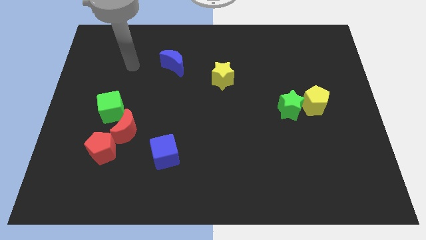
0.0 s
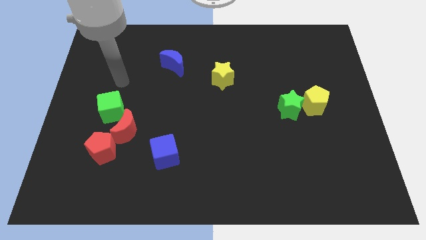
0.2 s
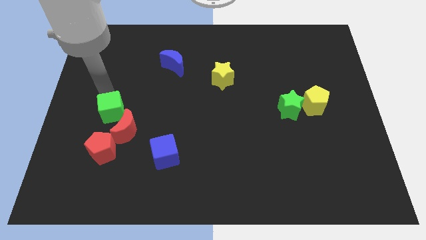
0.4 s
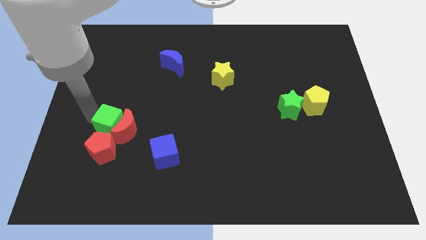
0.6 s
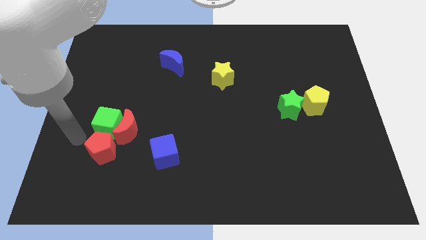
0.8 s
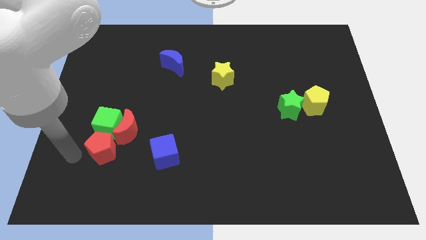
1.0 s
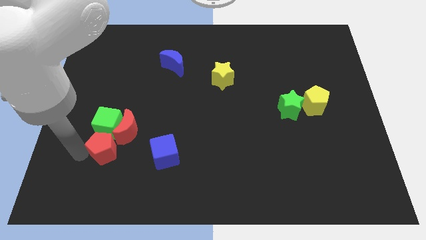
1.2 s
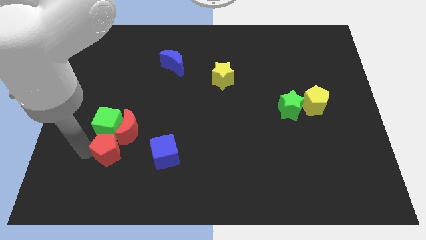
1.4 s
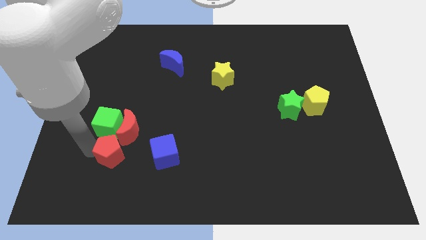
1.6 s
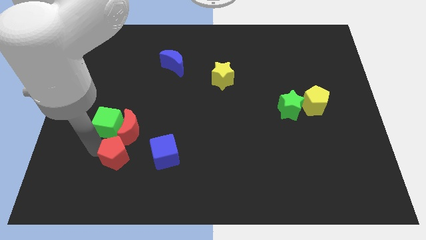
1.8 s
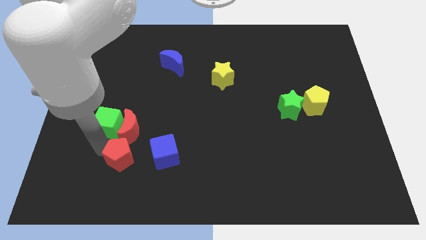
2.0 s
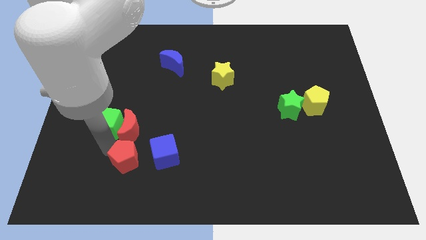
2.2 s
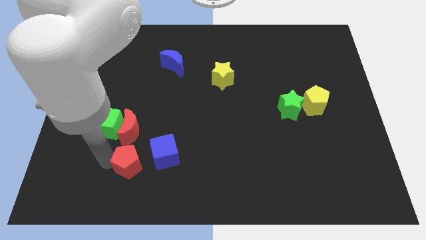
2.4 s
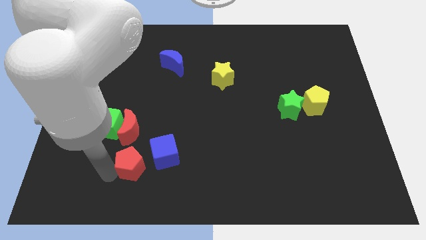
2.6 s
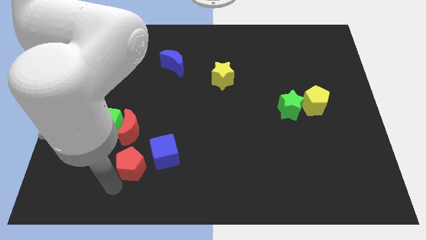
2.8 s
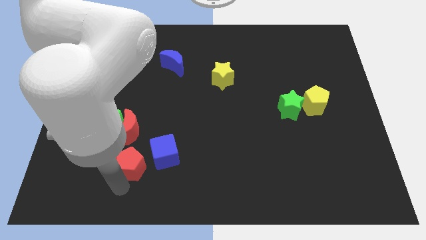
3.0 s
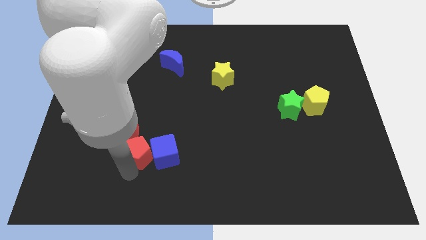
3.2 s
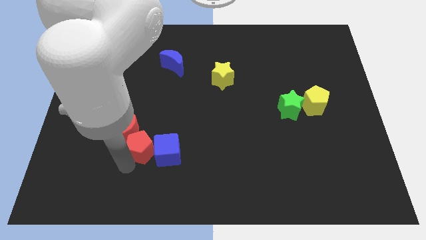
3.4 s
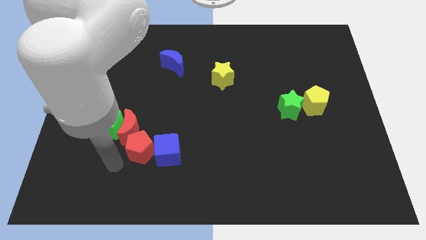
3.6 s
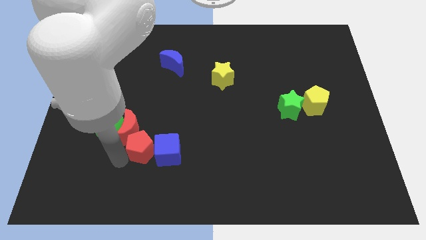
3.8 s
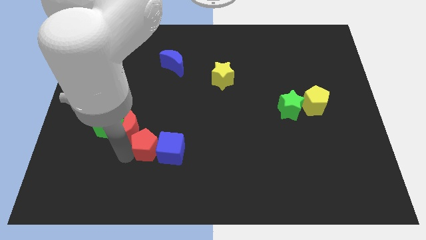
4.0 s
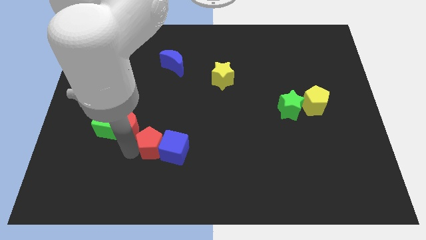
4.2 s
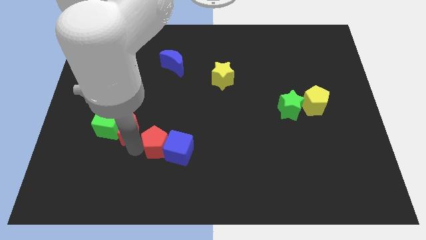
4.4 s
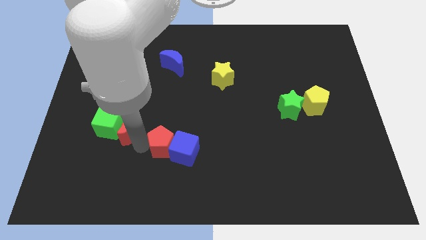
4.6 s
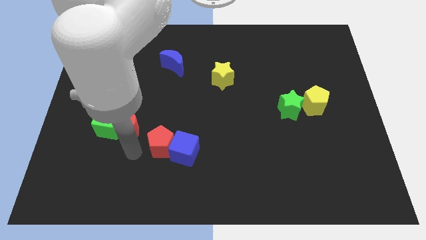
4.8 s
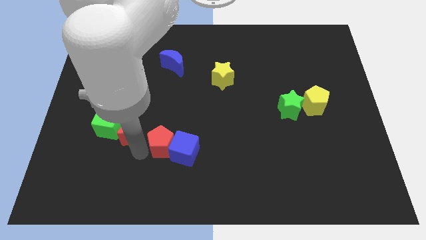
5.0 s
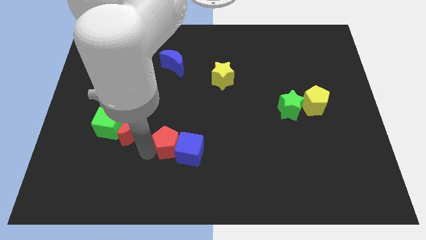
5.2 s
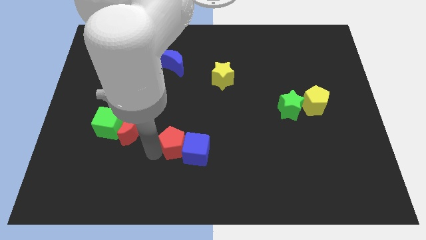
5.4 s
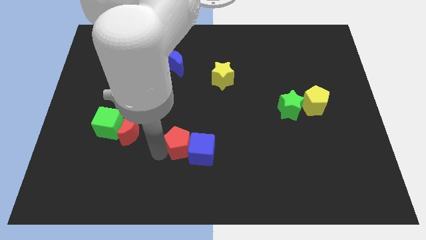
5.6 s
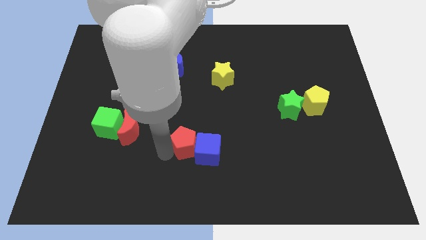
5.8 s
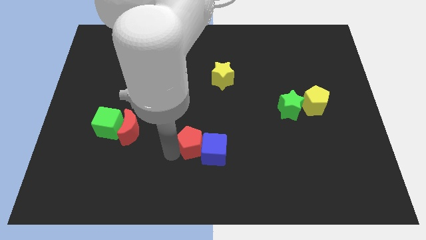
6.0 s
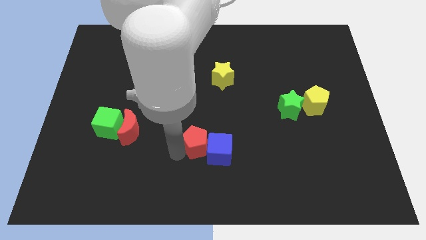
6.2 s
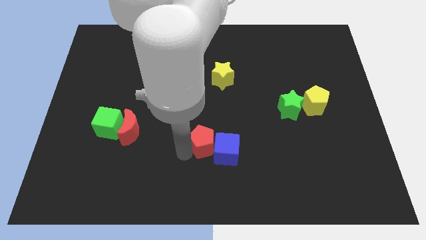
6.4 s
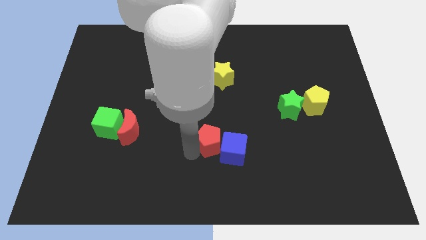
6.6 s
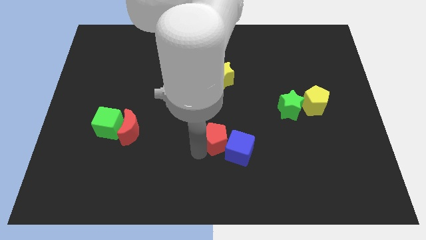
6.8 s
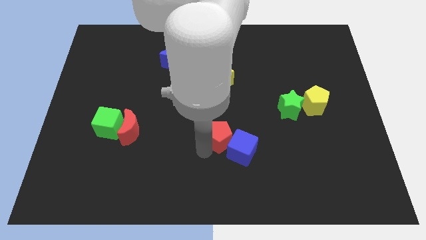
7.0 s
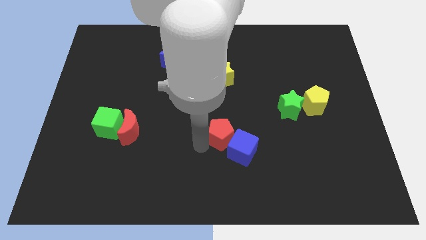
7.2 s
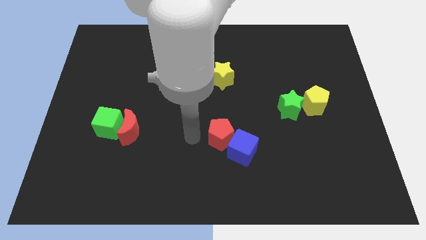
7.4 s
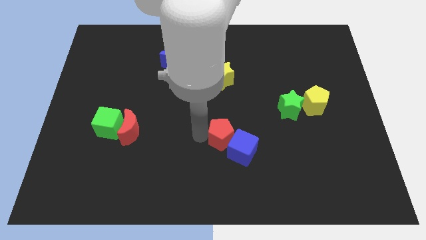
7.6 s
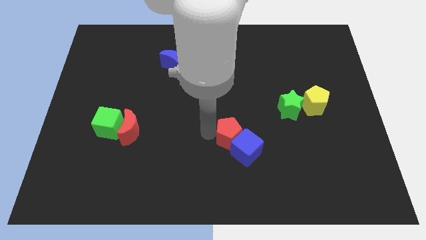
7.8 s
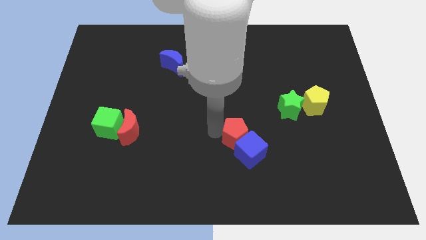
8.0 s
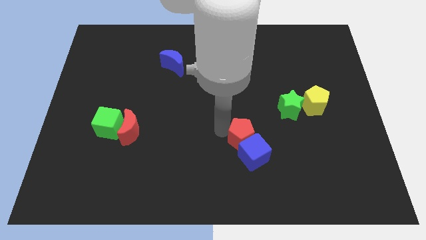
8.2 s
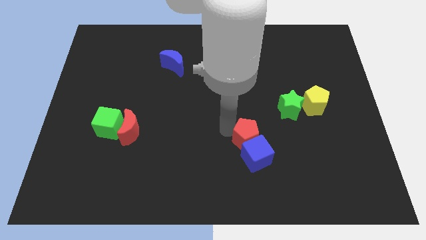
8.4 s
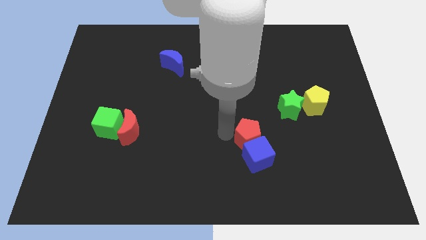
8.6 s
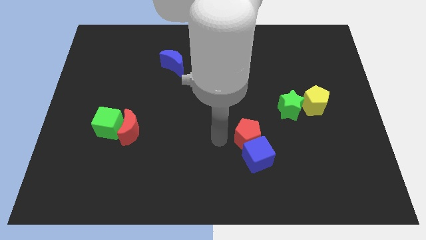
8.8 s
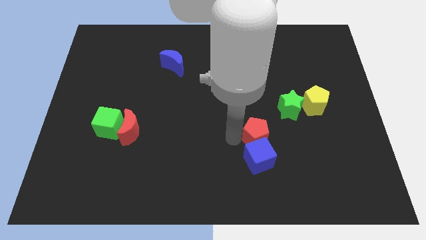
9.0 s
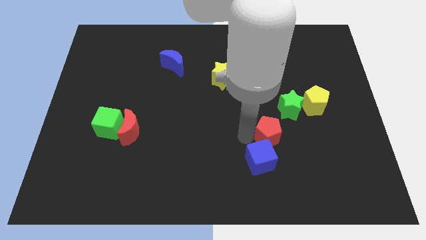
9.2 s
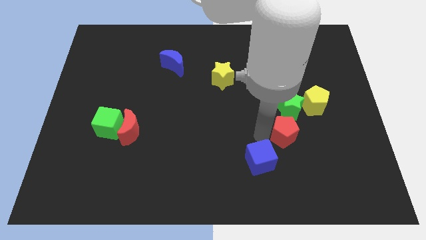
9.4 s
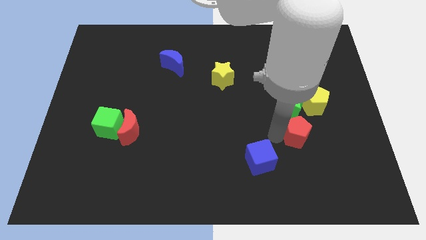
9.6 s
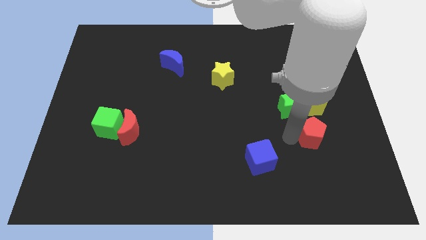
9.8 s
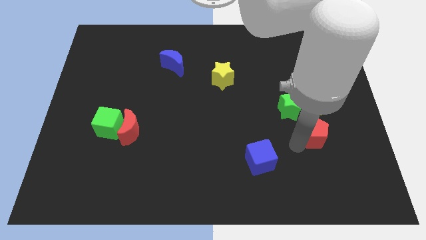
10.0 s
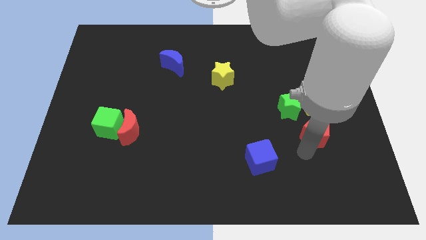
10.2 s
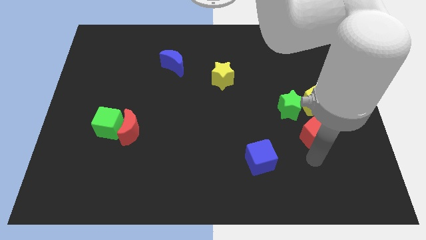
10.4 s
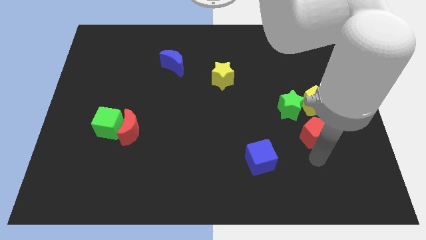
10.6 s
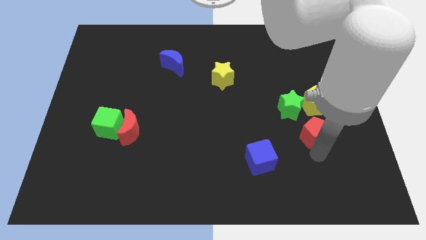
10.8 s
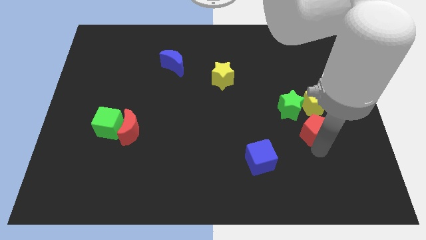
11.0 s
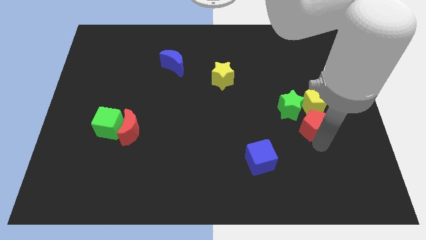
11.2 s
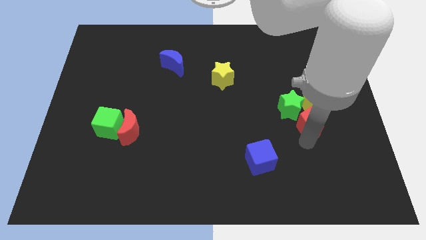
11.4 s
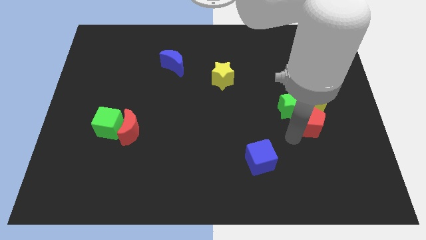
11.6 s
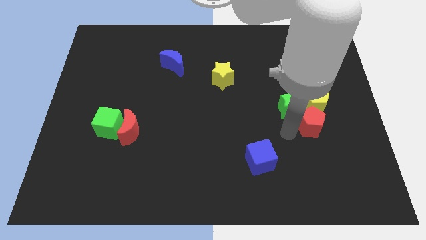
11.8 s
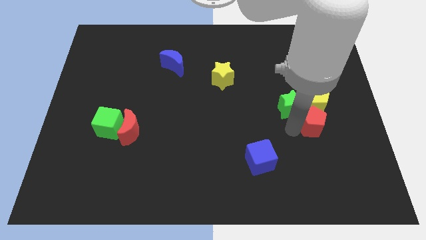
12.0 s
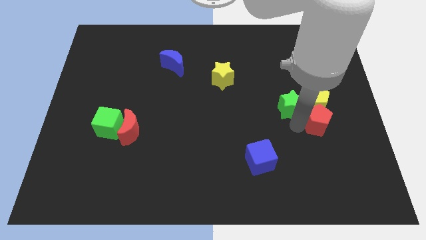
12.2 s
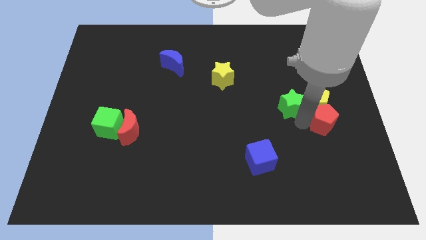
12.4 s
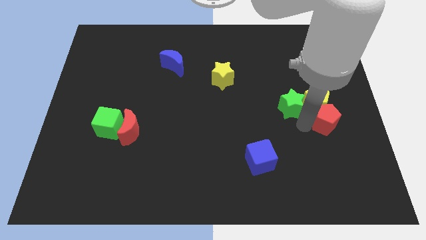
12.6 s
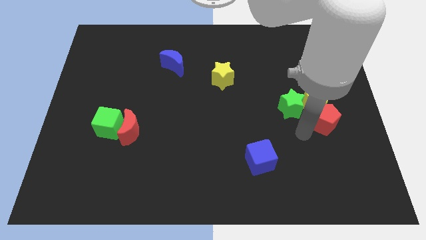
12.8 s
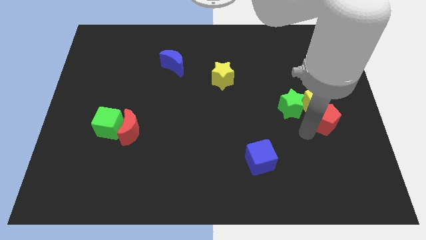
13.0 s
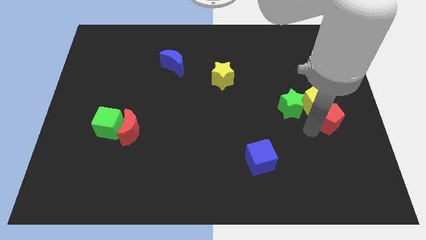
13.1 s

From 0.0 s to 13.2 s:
push the red pentagon to the center right
